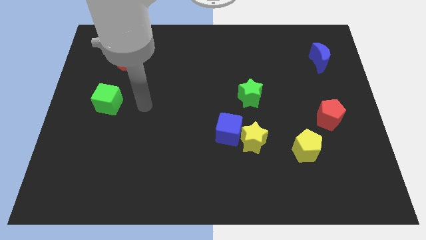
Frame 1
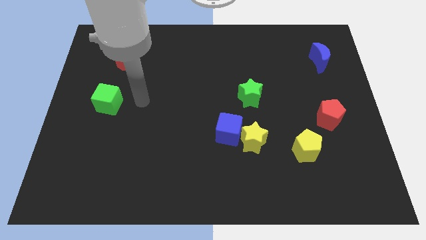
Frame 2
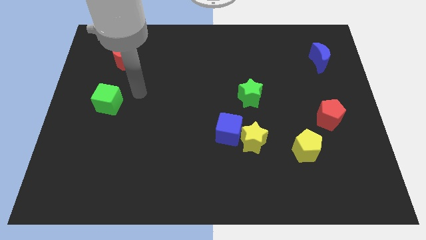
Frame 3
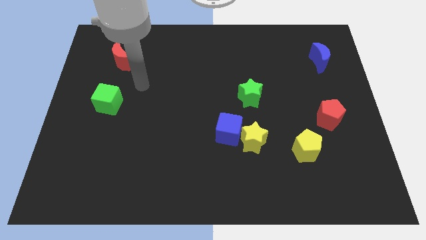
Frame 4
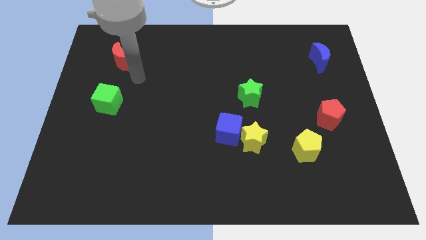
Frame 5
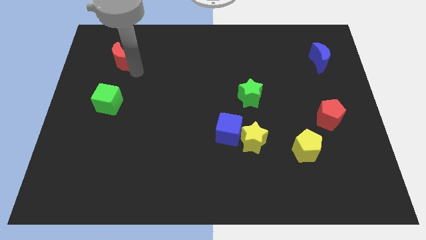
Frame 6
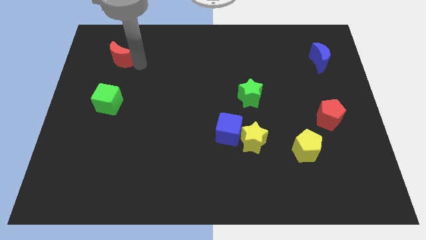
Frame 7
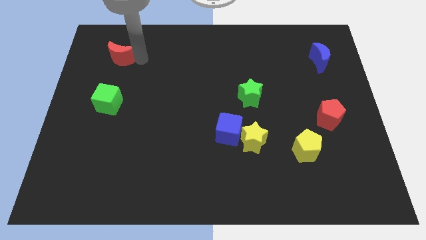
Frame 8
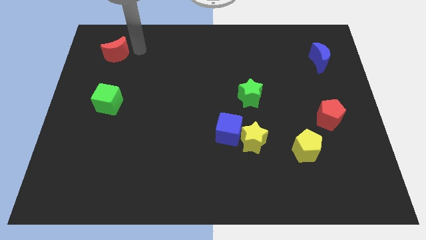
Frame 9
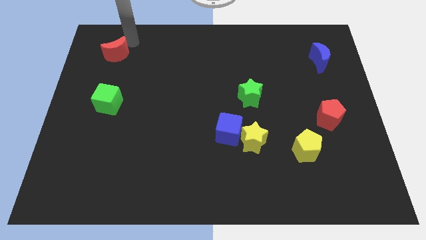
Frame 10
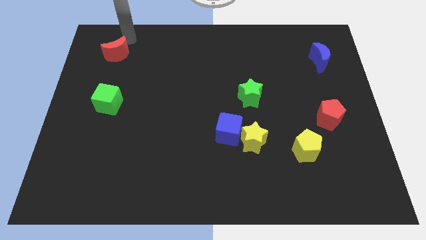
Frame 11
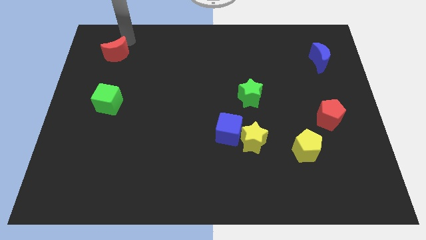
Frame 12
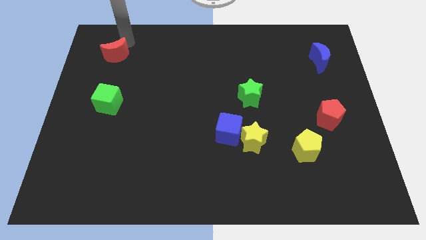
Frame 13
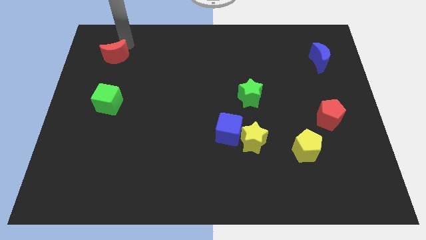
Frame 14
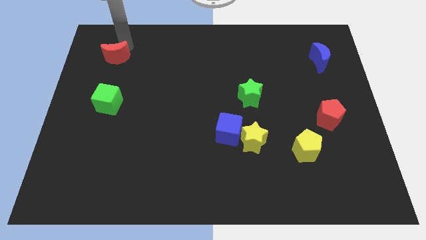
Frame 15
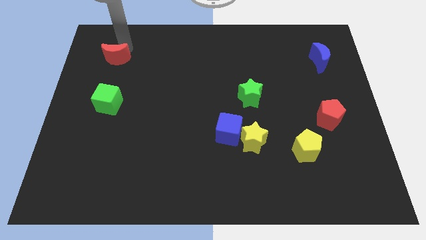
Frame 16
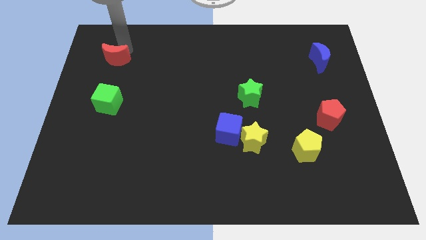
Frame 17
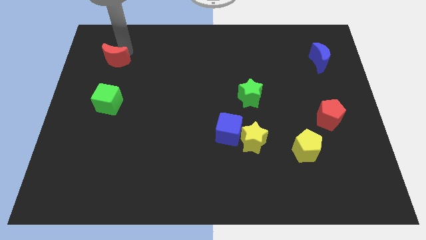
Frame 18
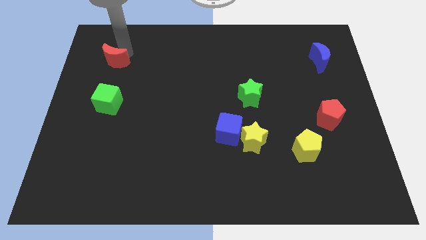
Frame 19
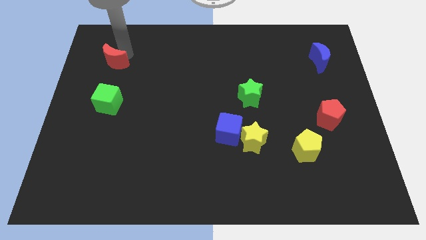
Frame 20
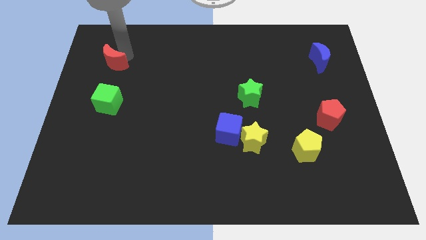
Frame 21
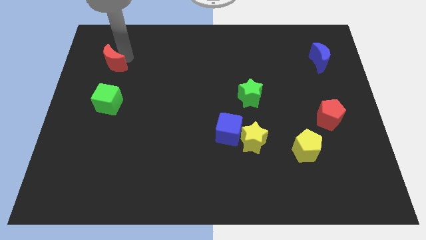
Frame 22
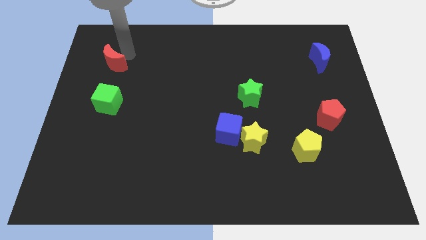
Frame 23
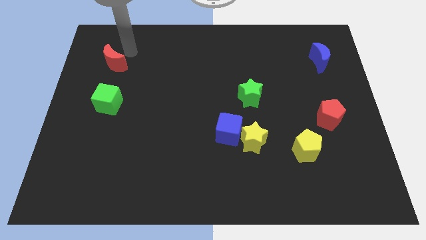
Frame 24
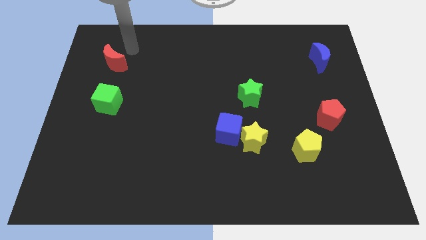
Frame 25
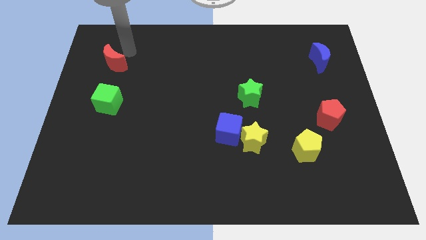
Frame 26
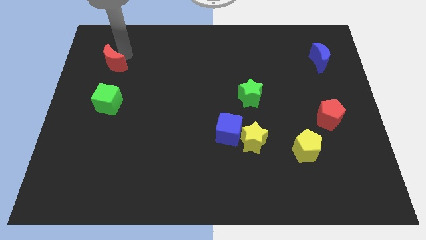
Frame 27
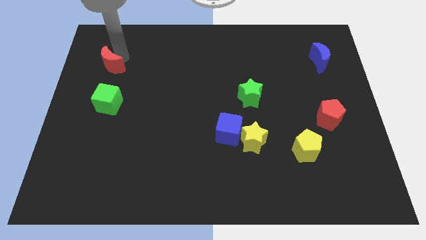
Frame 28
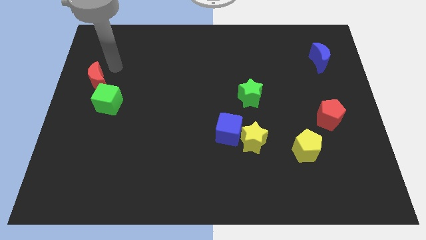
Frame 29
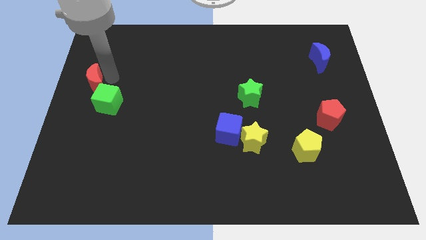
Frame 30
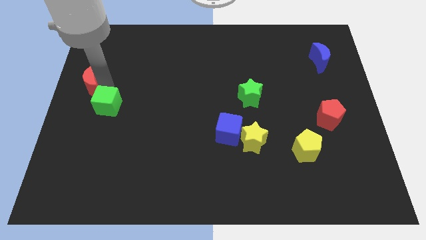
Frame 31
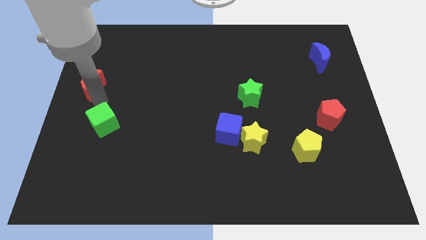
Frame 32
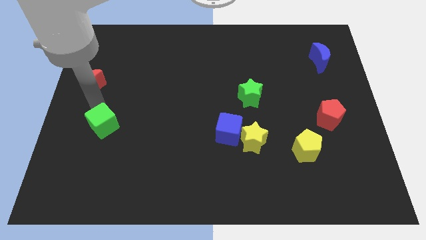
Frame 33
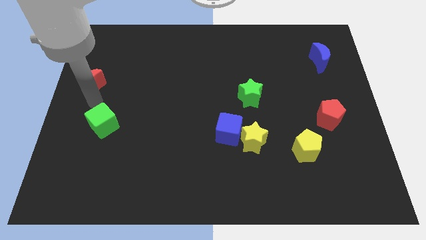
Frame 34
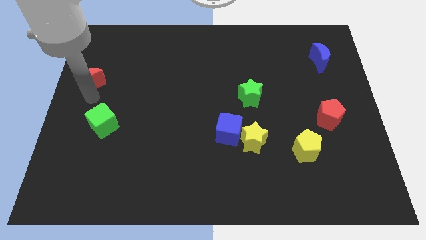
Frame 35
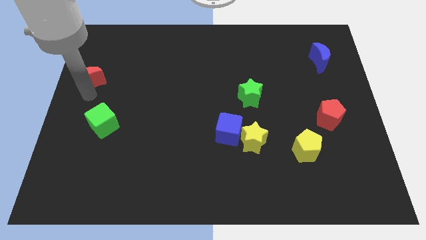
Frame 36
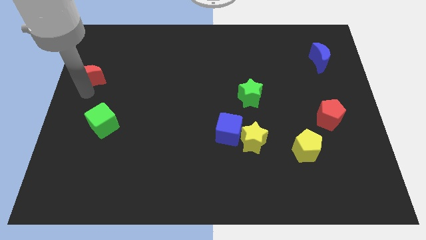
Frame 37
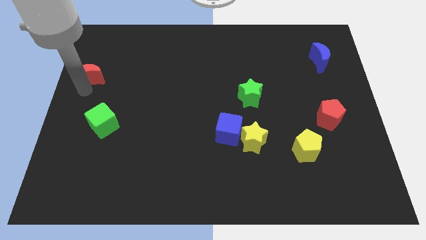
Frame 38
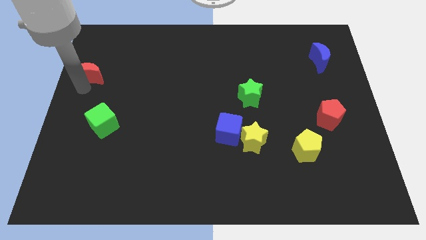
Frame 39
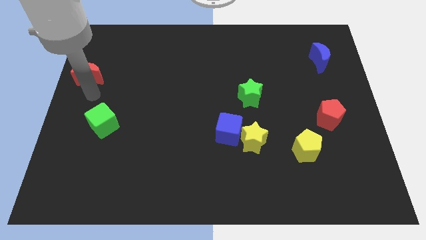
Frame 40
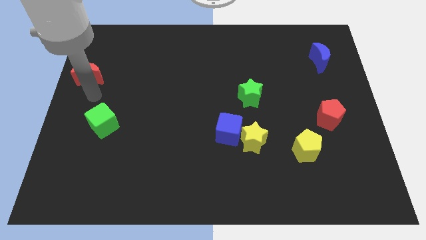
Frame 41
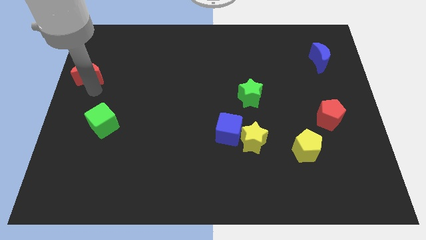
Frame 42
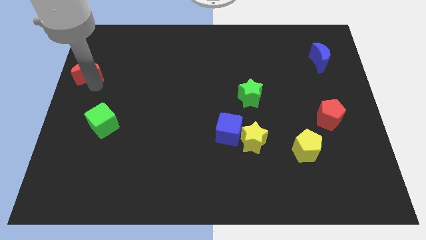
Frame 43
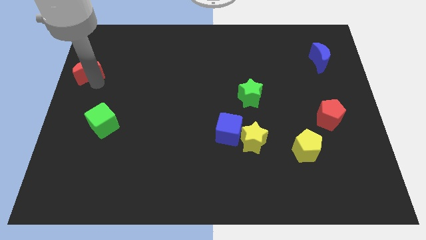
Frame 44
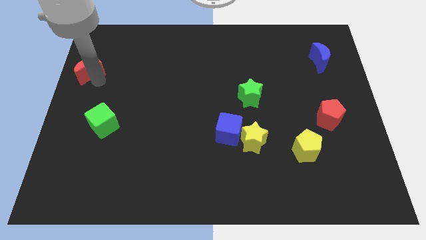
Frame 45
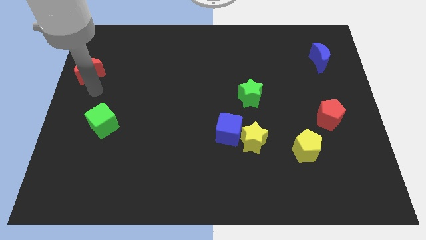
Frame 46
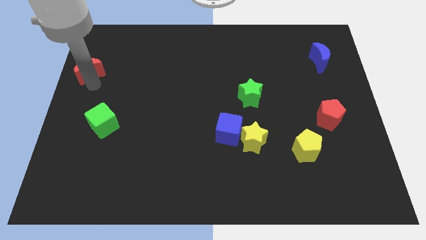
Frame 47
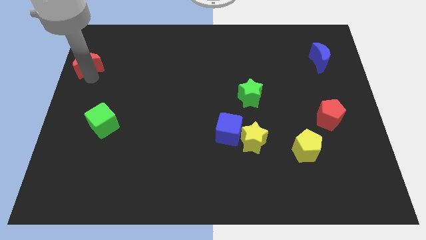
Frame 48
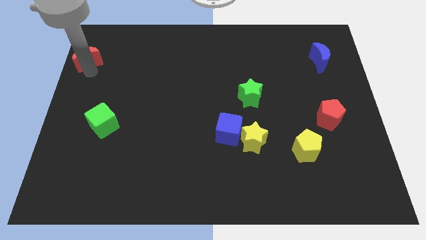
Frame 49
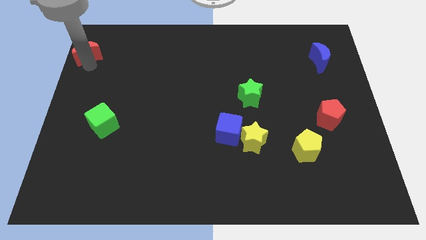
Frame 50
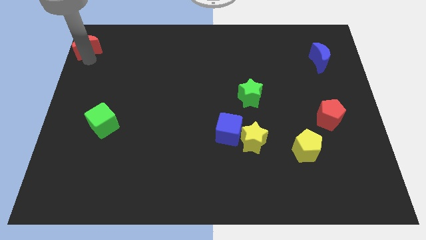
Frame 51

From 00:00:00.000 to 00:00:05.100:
slide the red moon to the top left of the board

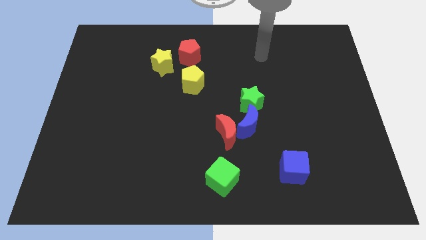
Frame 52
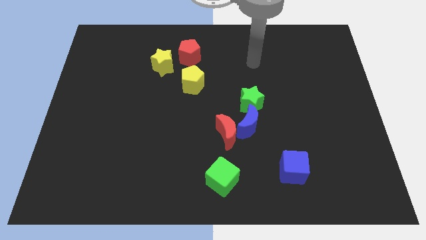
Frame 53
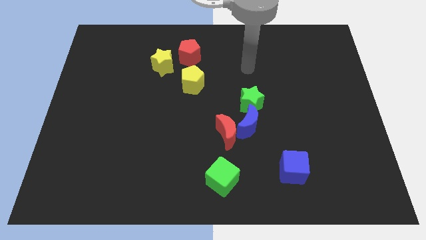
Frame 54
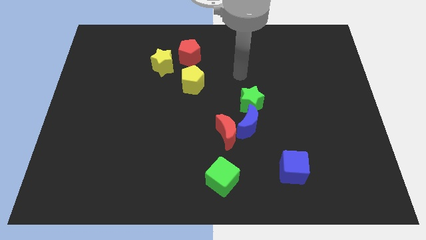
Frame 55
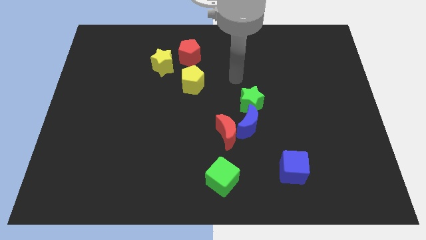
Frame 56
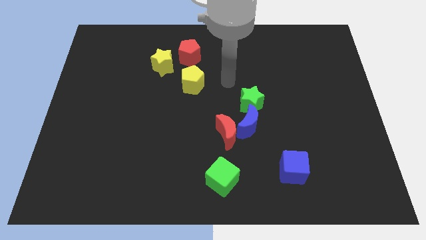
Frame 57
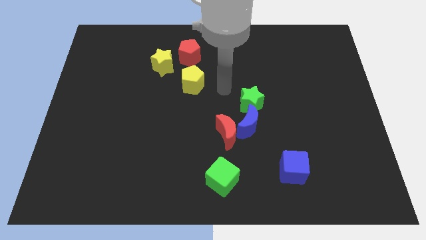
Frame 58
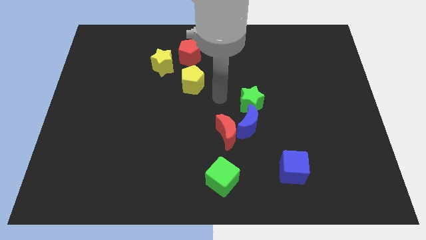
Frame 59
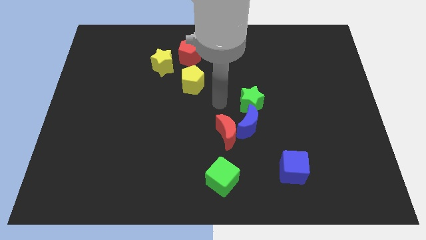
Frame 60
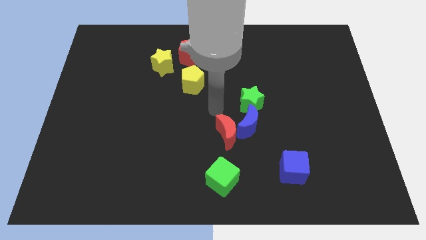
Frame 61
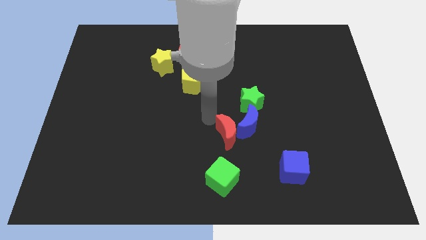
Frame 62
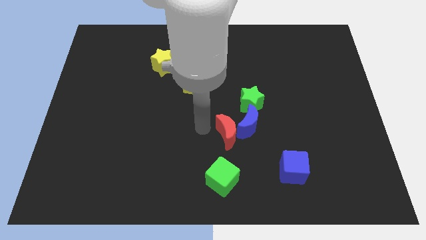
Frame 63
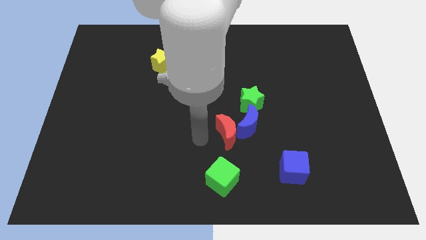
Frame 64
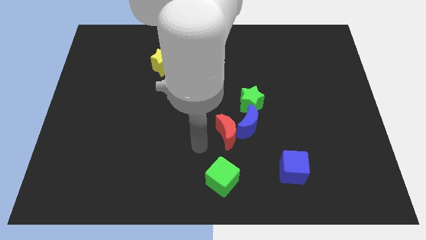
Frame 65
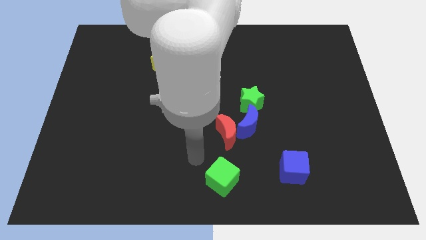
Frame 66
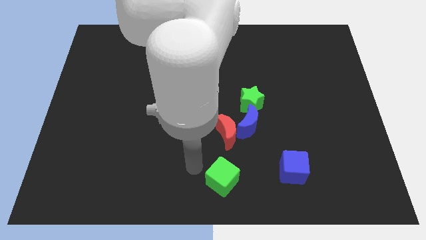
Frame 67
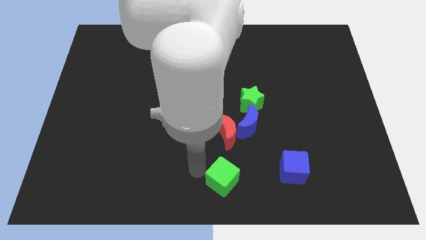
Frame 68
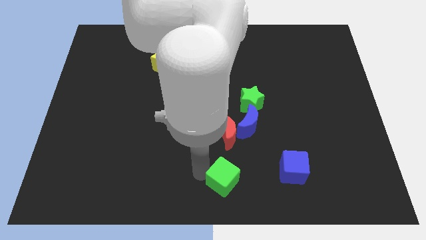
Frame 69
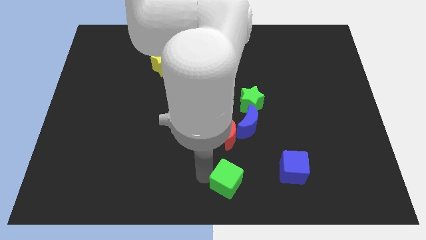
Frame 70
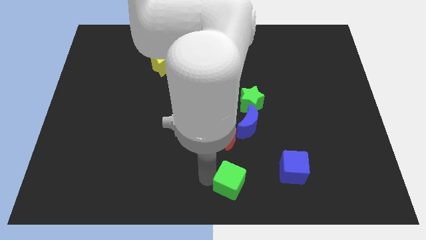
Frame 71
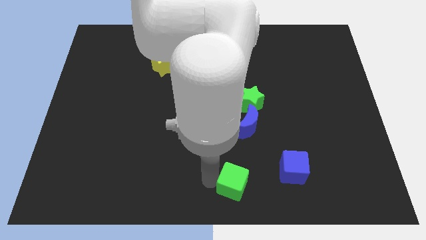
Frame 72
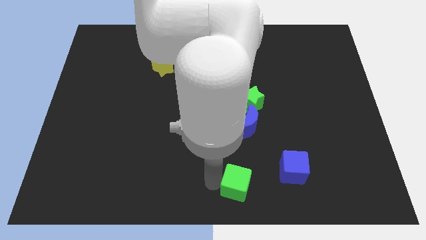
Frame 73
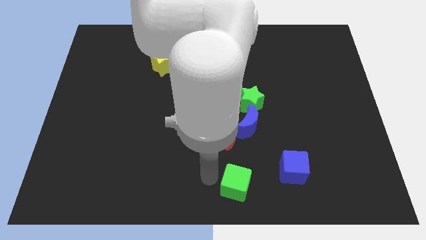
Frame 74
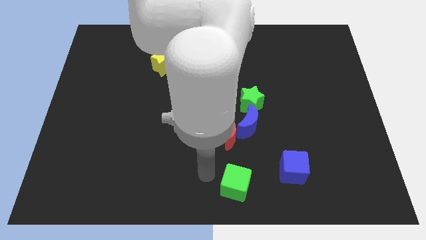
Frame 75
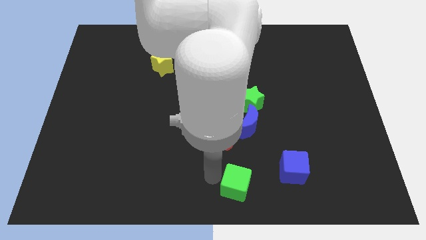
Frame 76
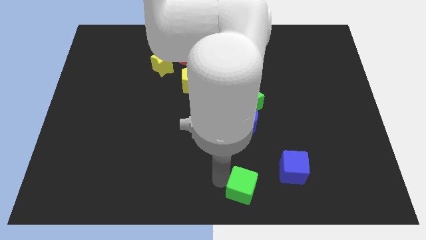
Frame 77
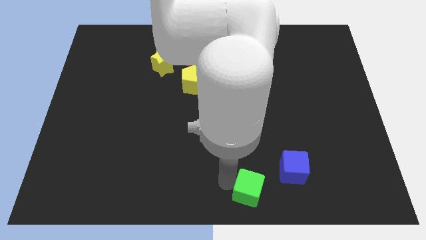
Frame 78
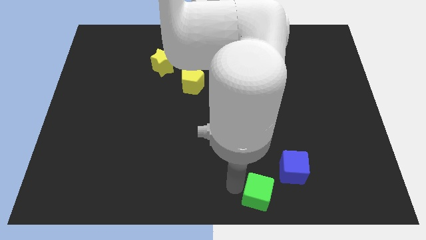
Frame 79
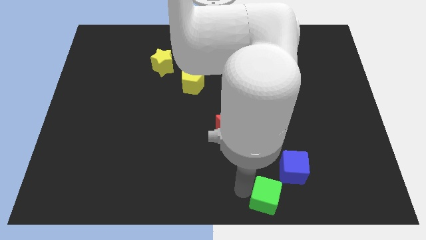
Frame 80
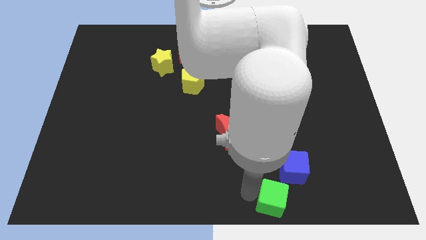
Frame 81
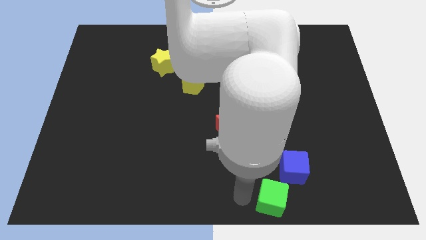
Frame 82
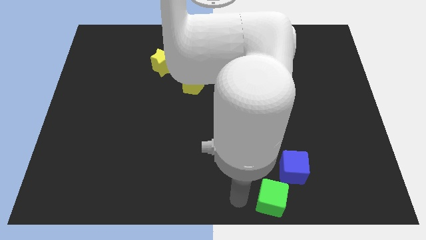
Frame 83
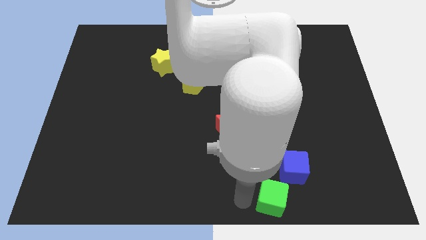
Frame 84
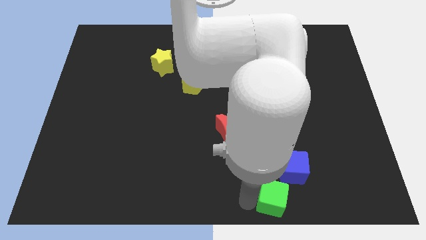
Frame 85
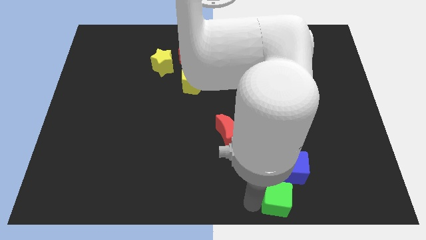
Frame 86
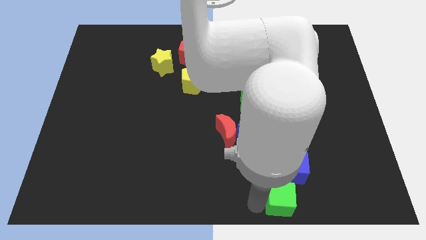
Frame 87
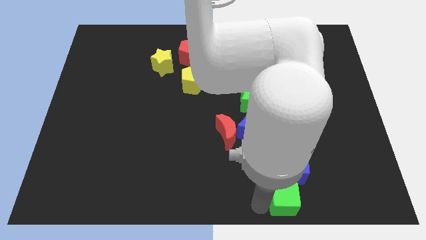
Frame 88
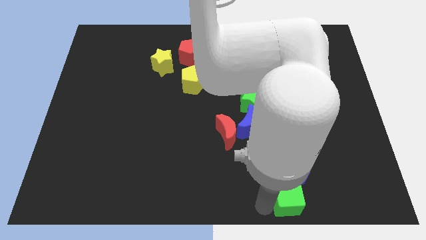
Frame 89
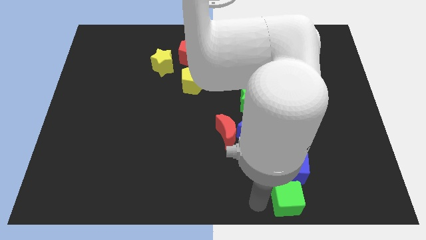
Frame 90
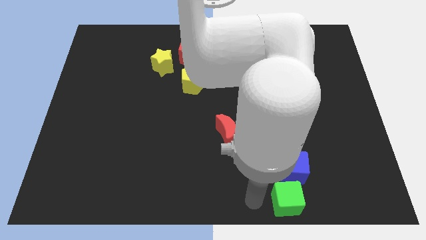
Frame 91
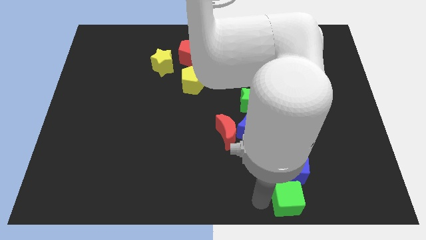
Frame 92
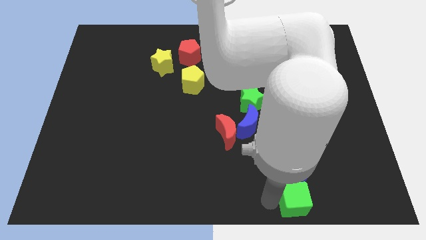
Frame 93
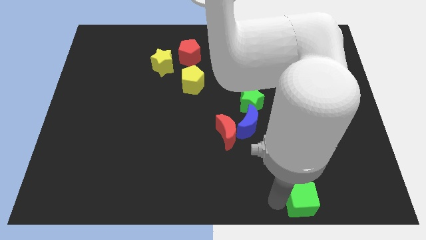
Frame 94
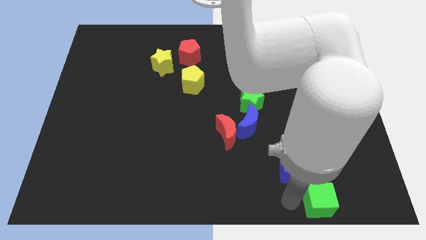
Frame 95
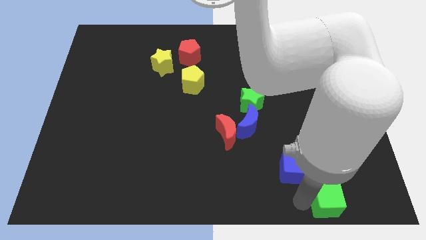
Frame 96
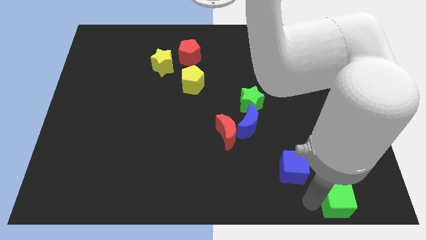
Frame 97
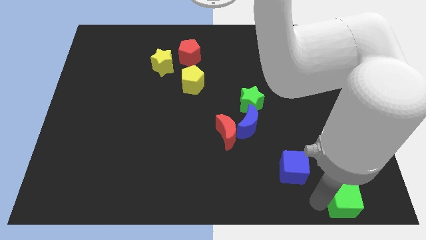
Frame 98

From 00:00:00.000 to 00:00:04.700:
move the green cube to the bottom right
